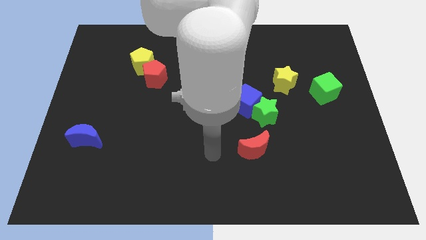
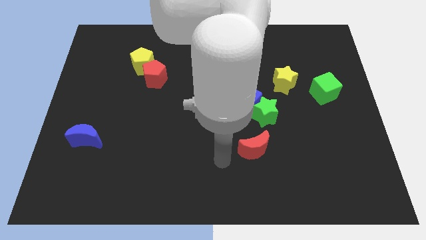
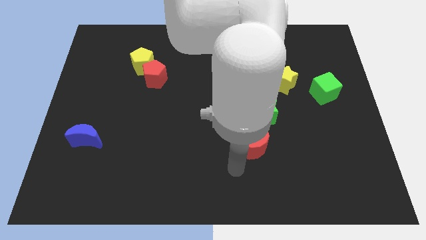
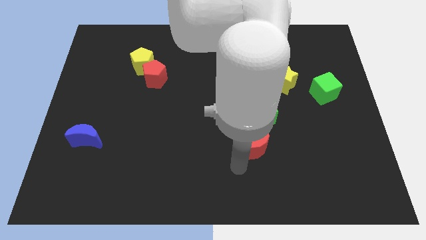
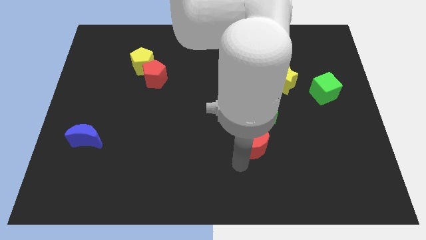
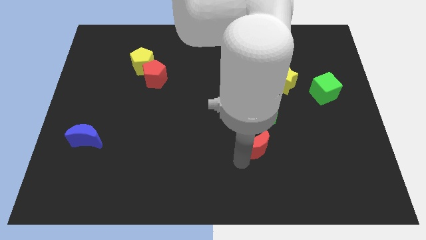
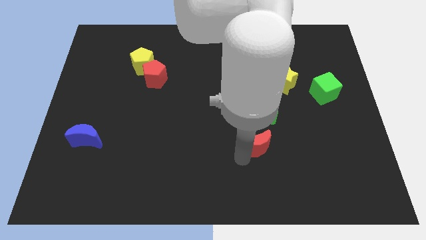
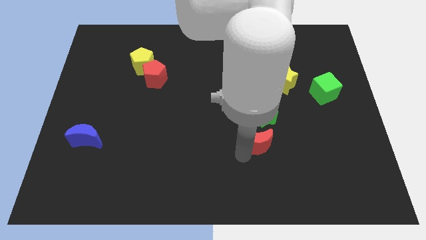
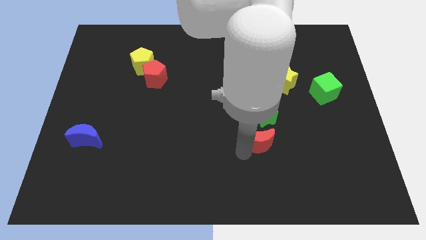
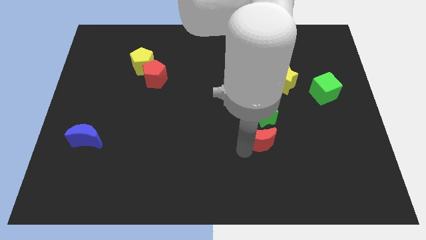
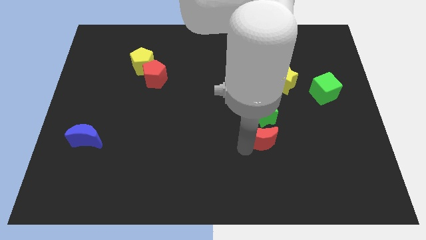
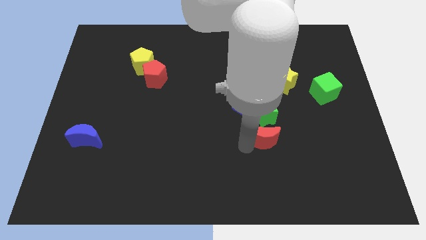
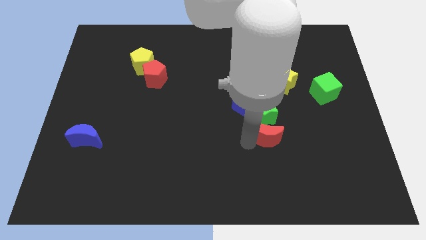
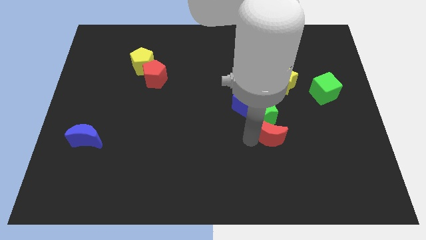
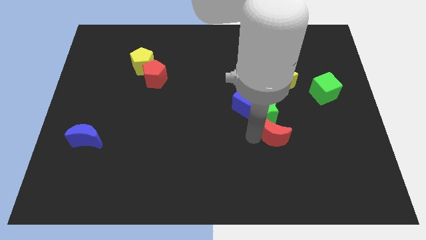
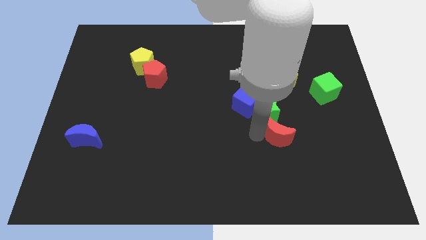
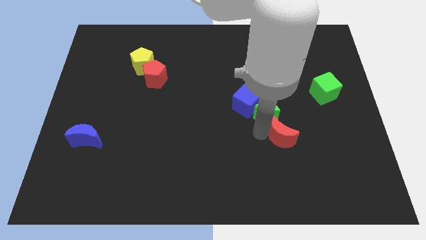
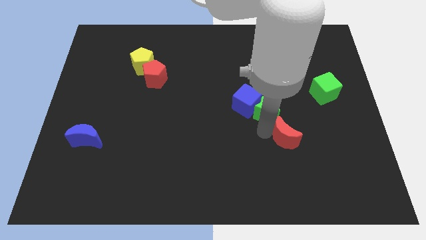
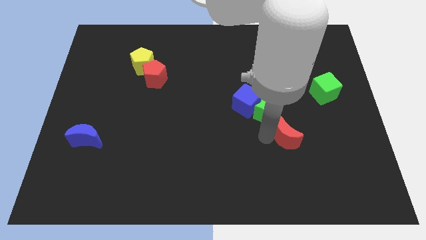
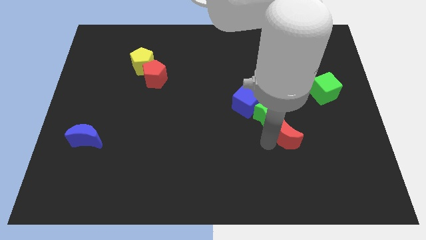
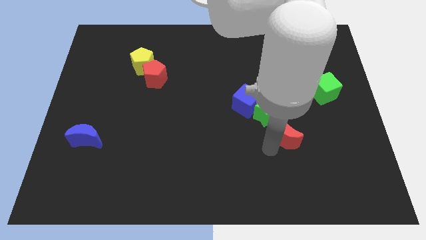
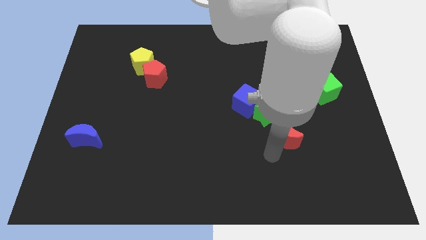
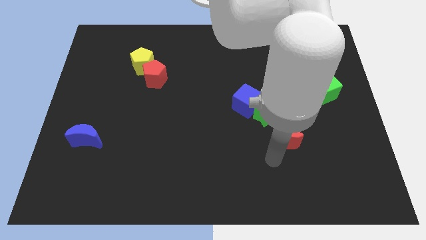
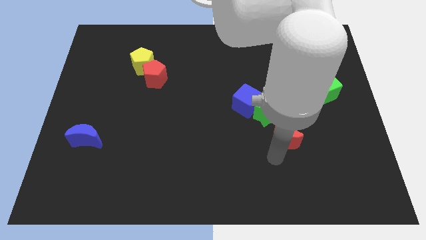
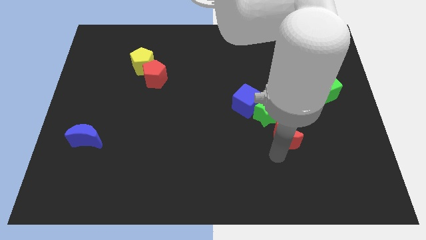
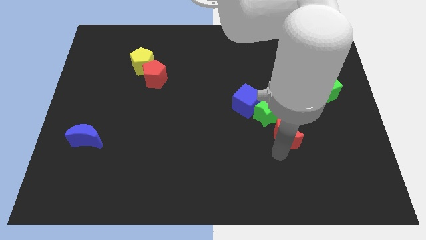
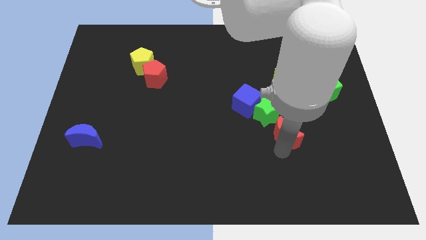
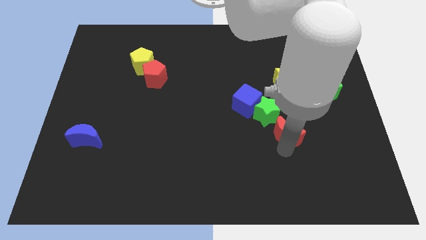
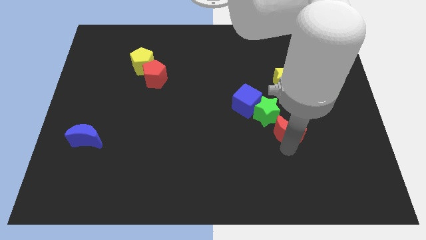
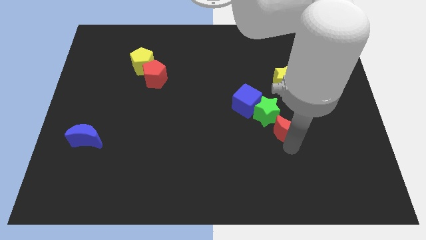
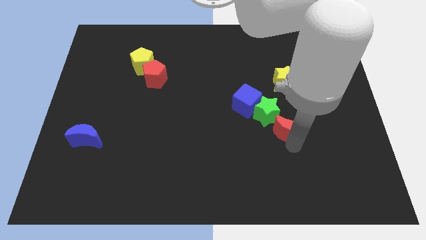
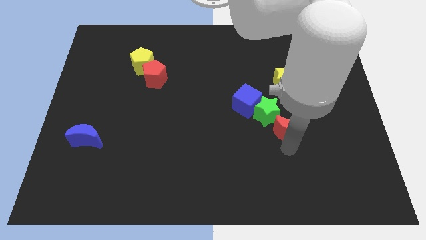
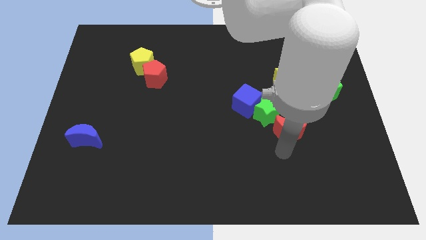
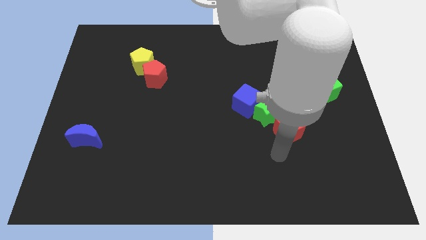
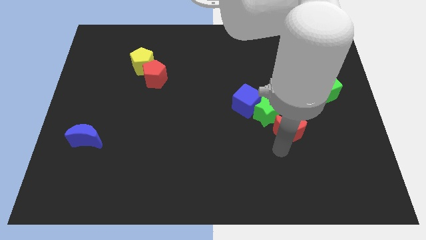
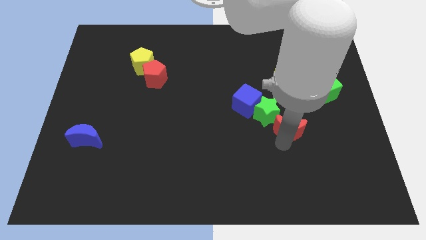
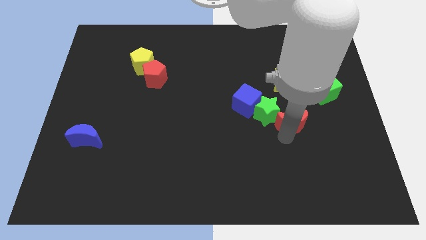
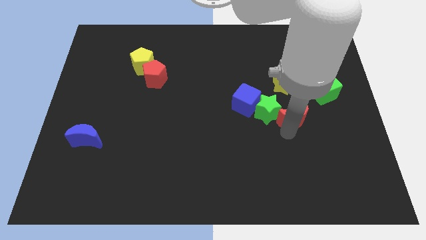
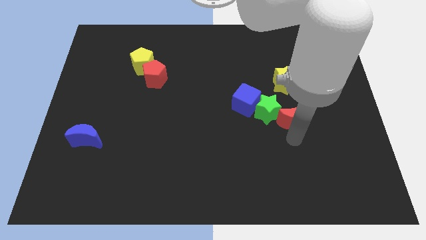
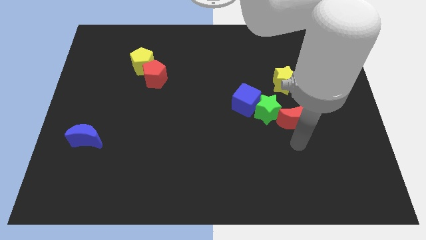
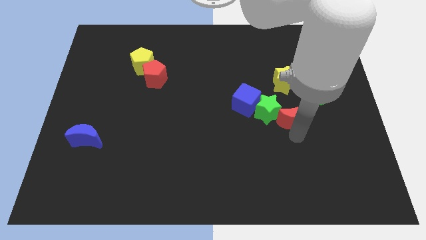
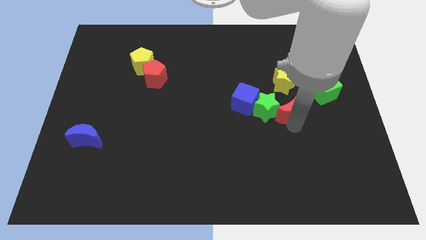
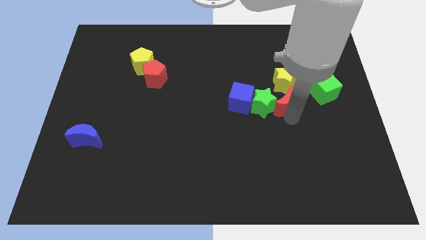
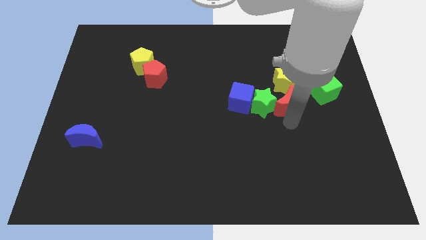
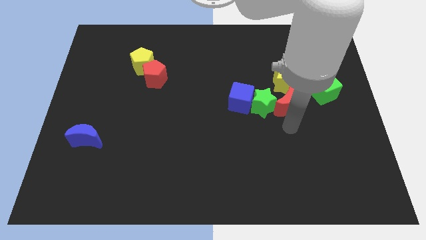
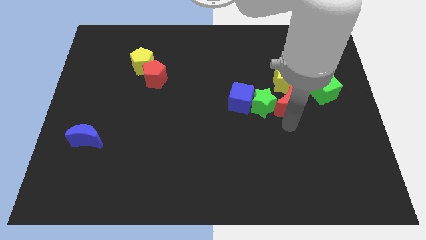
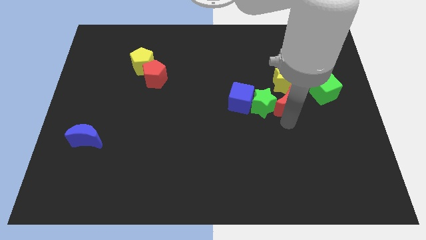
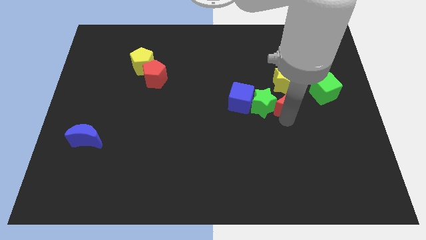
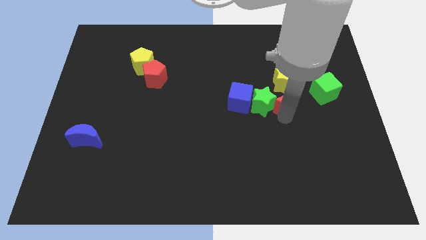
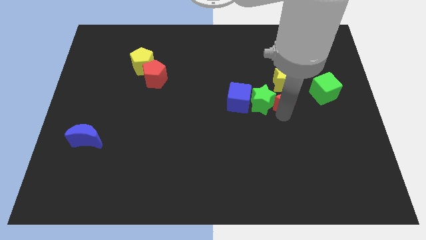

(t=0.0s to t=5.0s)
slide the red moon to the yellow star

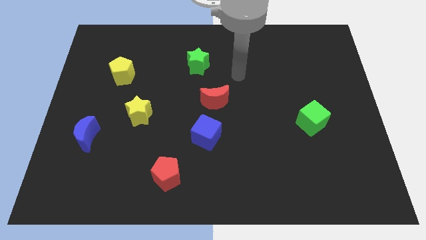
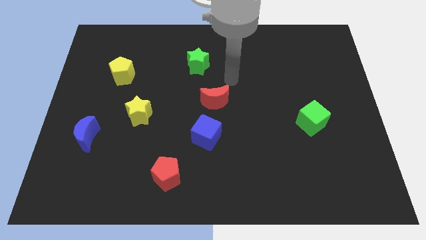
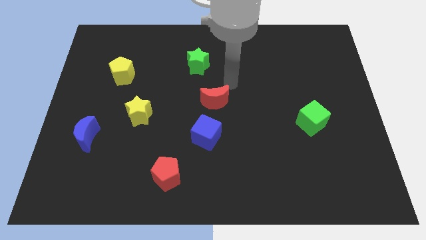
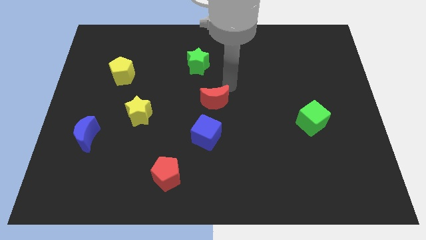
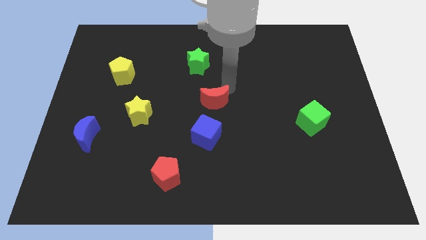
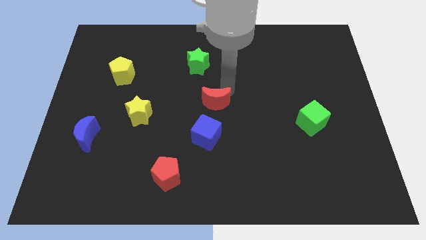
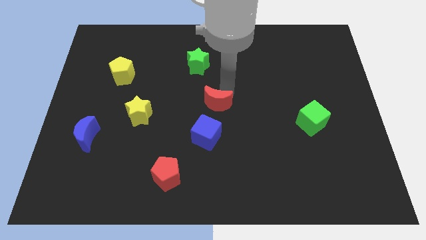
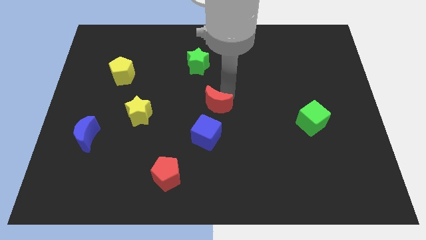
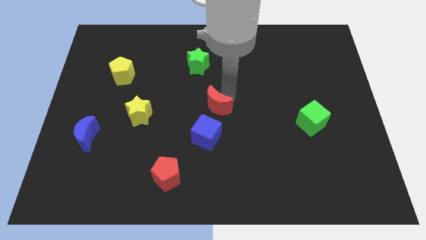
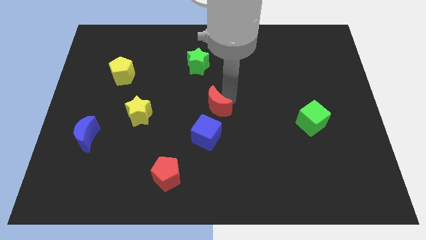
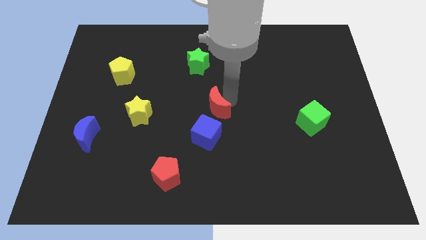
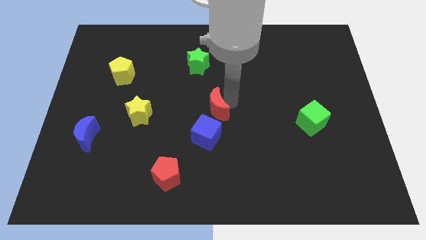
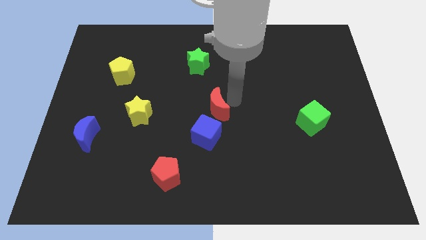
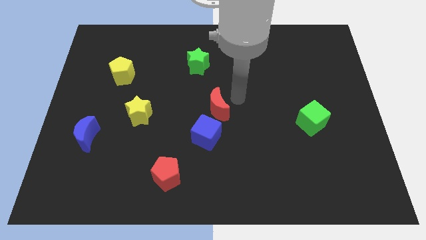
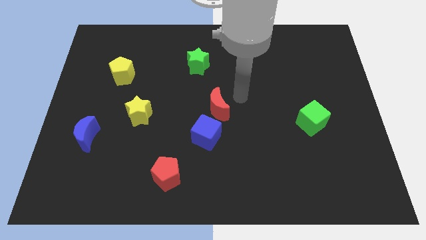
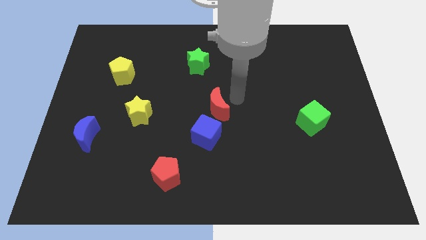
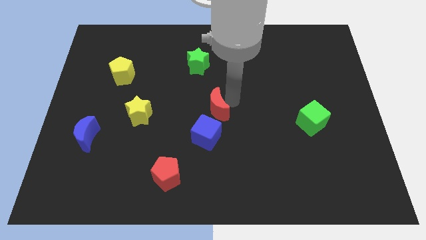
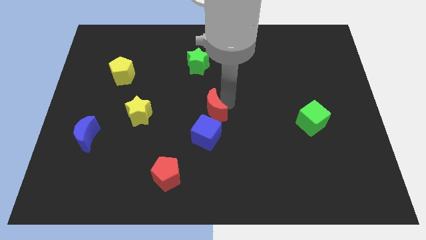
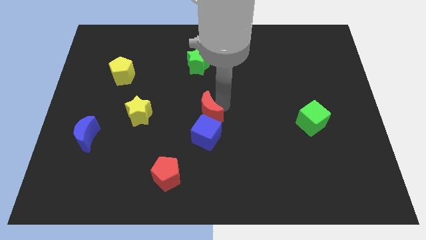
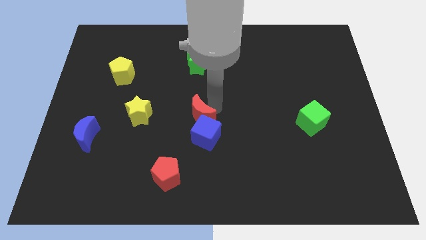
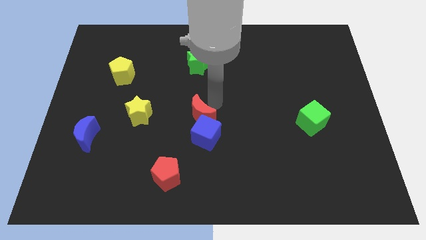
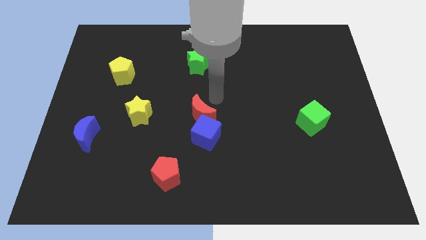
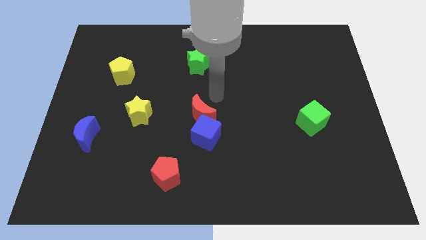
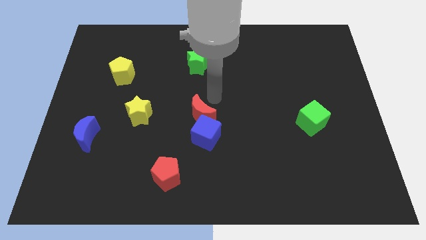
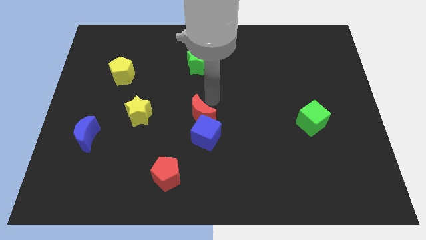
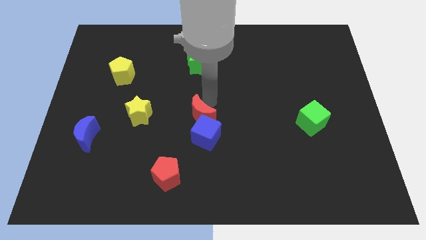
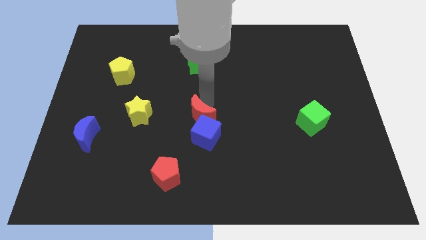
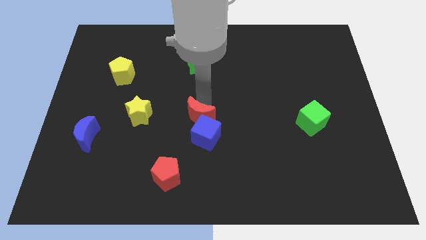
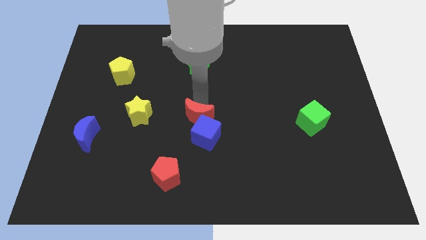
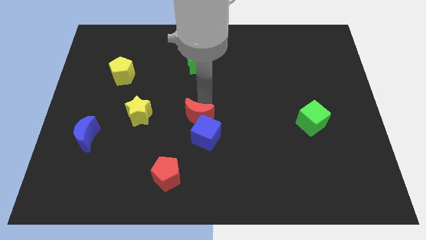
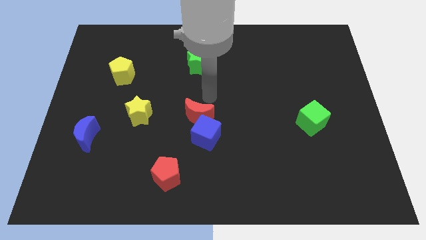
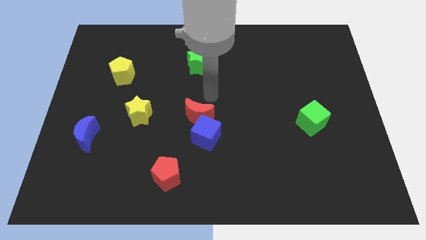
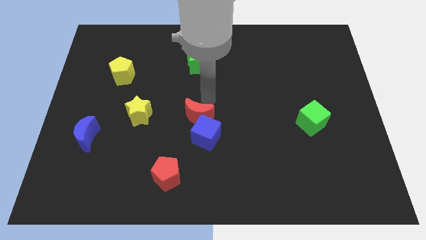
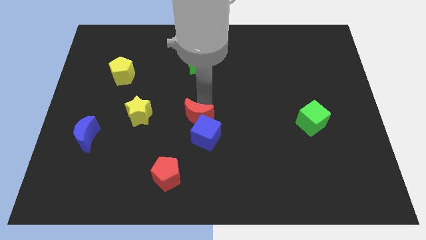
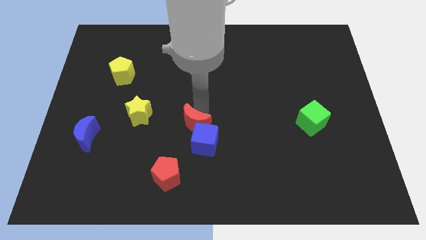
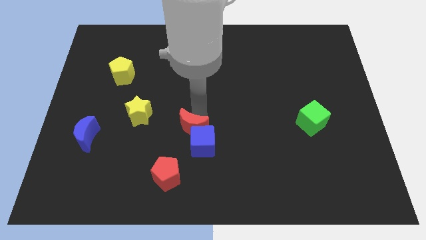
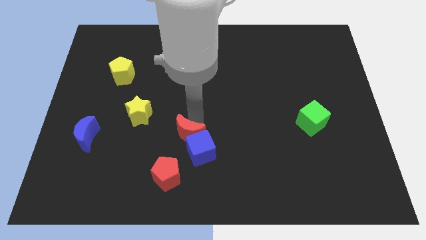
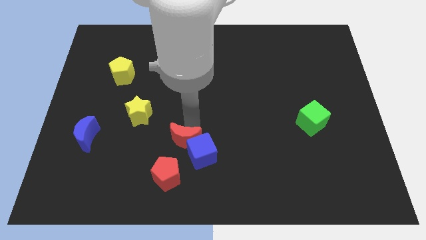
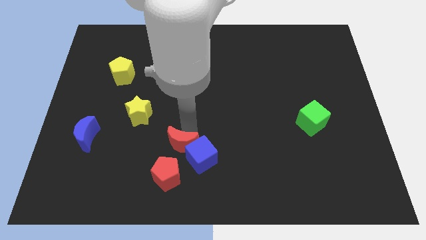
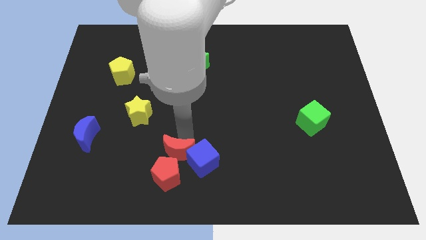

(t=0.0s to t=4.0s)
move the red moon next to the red pentagon
